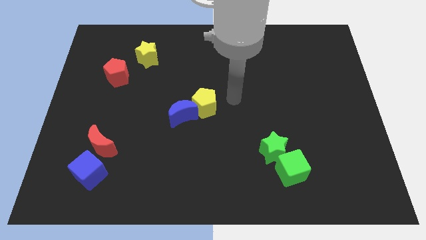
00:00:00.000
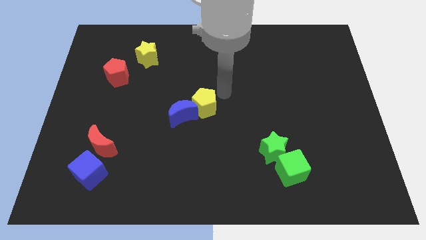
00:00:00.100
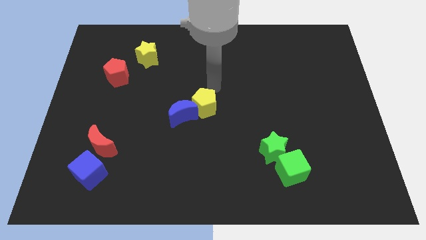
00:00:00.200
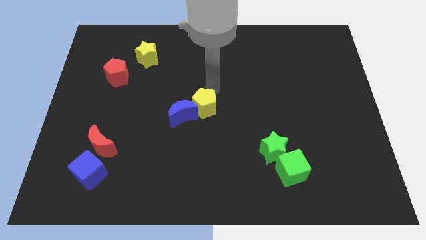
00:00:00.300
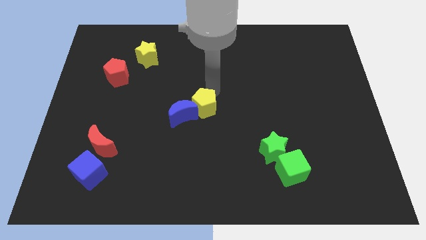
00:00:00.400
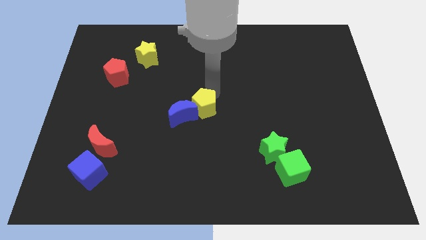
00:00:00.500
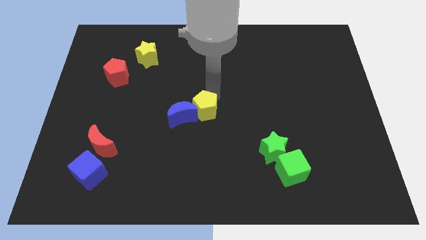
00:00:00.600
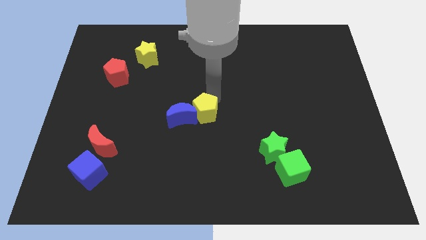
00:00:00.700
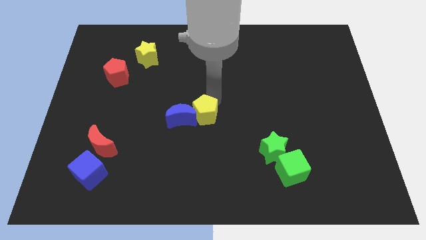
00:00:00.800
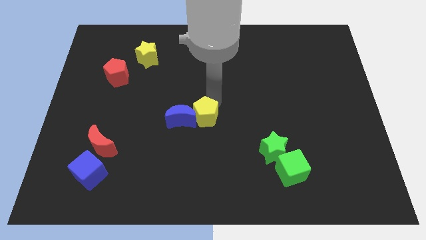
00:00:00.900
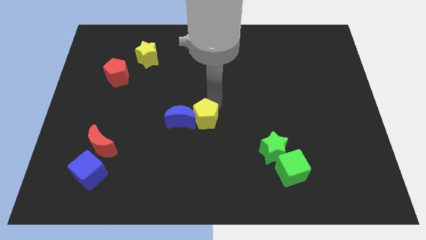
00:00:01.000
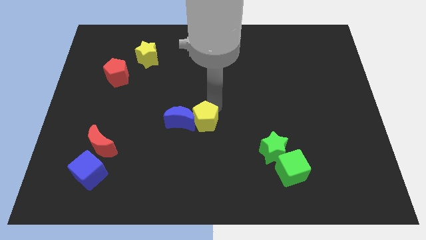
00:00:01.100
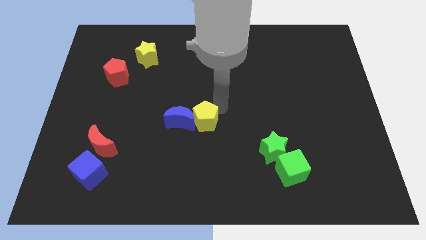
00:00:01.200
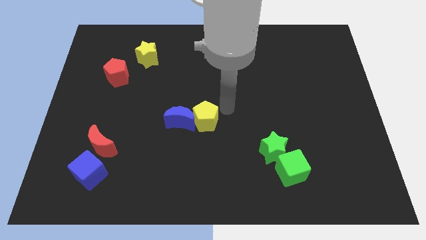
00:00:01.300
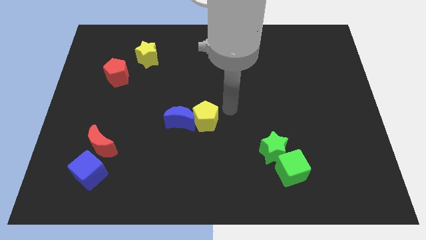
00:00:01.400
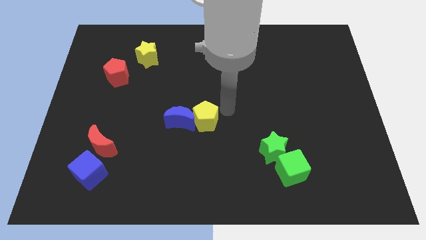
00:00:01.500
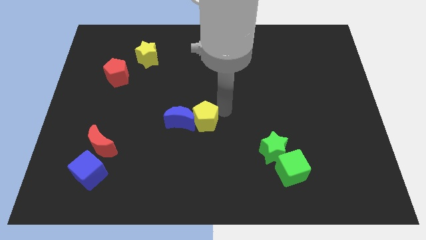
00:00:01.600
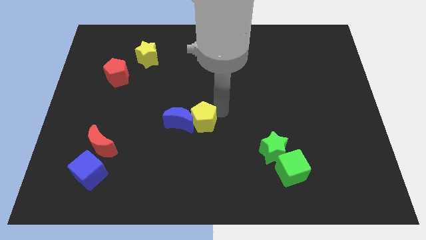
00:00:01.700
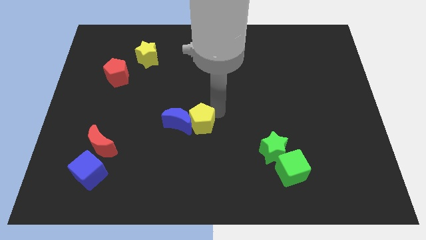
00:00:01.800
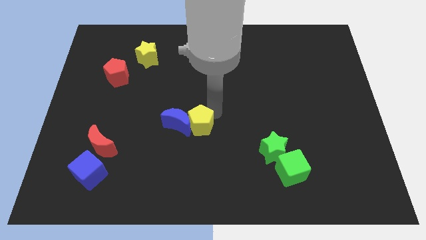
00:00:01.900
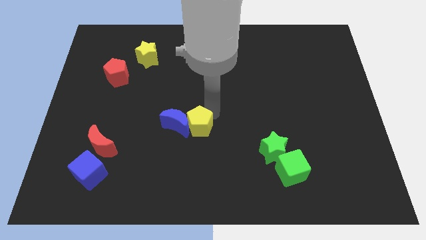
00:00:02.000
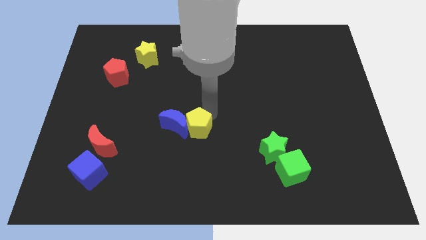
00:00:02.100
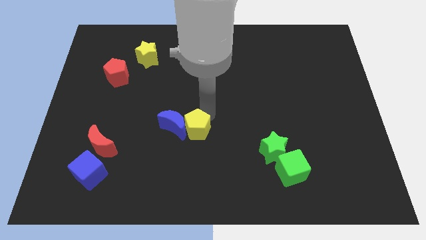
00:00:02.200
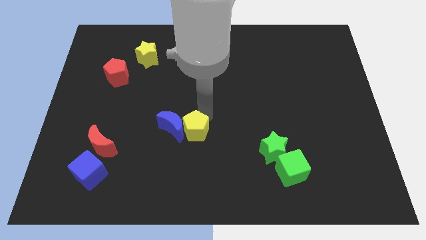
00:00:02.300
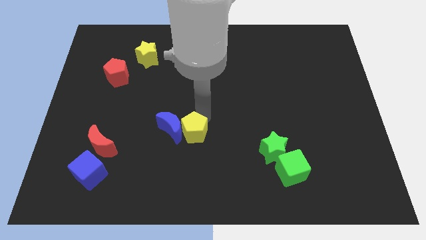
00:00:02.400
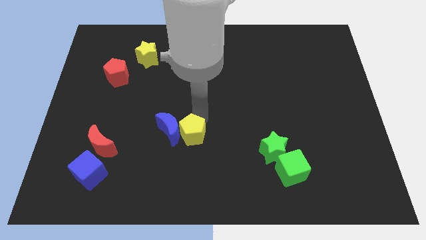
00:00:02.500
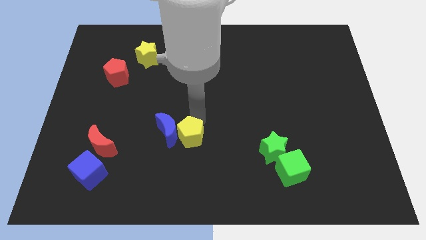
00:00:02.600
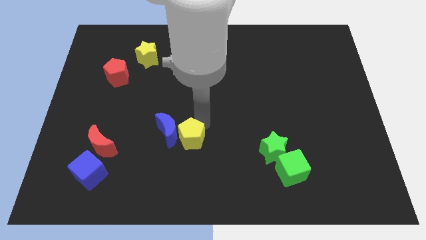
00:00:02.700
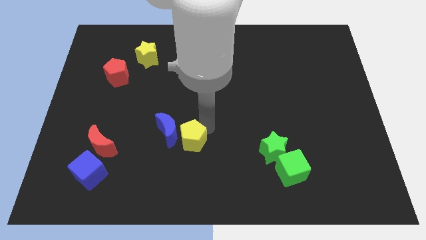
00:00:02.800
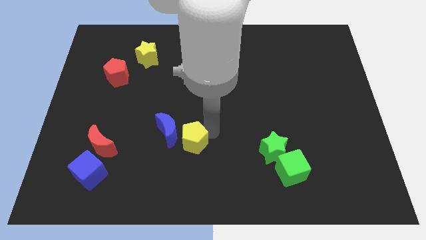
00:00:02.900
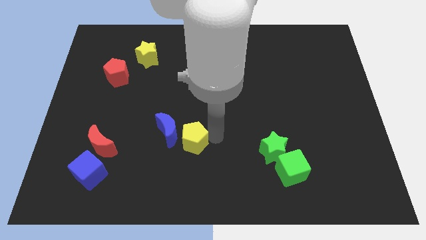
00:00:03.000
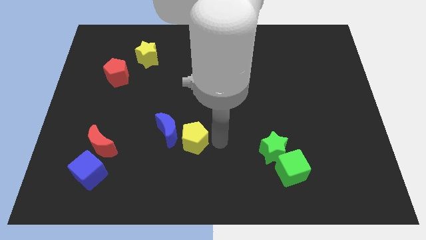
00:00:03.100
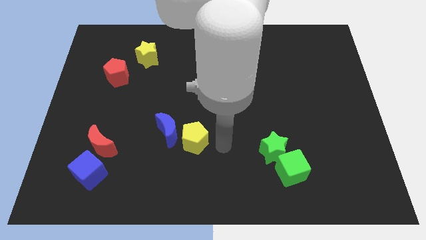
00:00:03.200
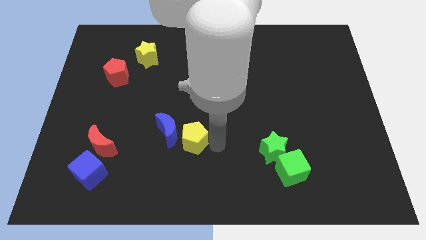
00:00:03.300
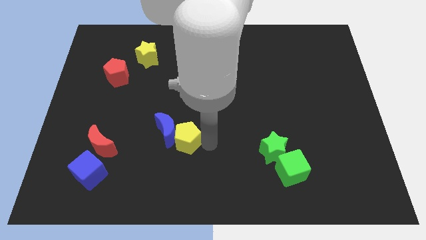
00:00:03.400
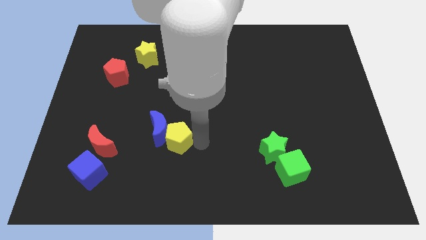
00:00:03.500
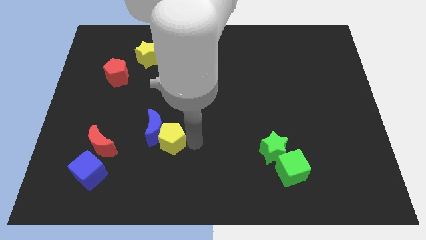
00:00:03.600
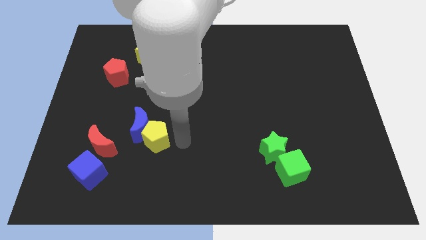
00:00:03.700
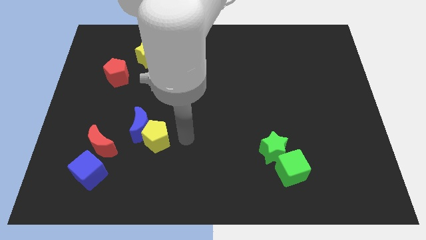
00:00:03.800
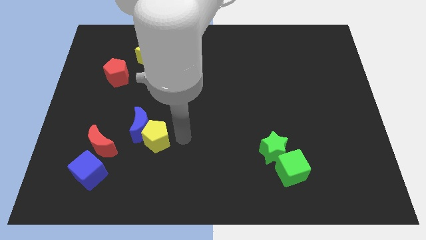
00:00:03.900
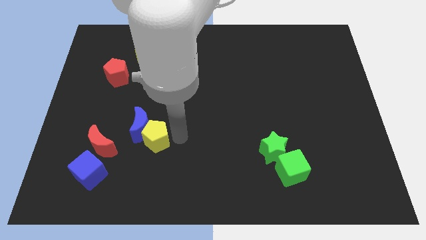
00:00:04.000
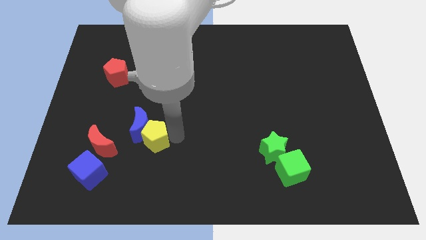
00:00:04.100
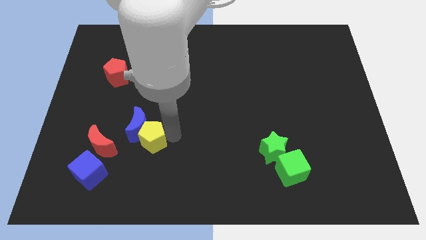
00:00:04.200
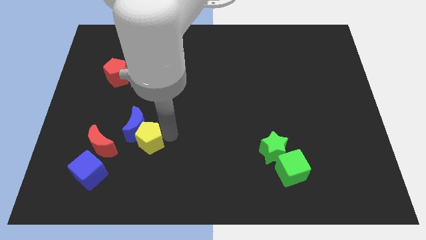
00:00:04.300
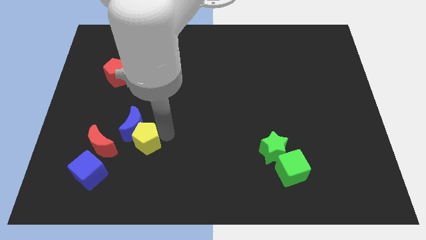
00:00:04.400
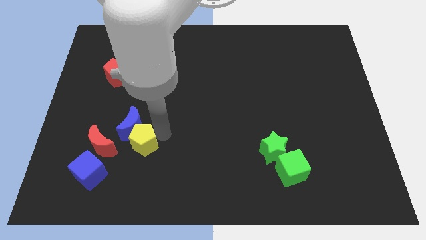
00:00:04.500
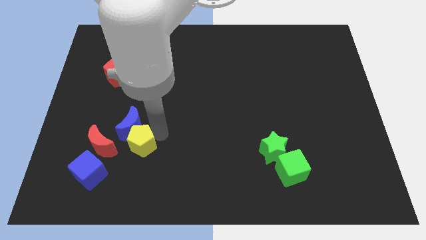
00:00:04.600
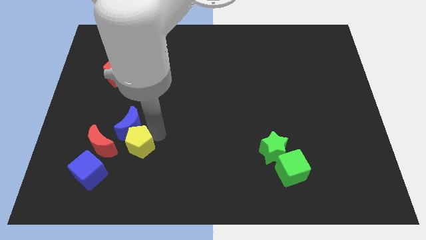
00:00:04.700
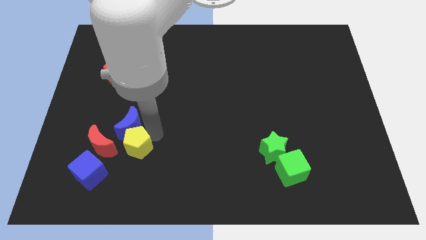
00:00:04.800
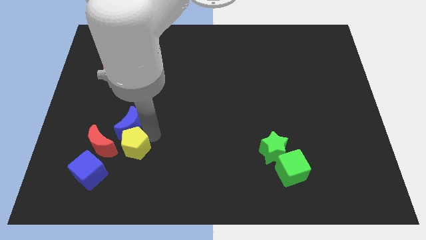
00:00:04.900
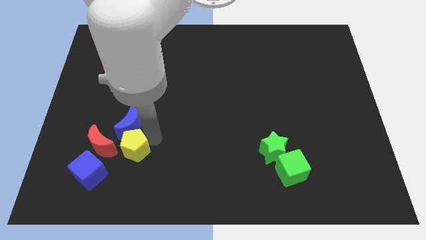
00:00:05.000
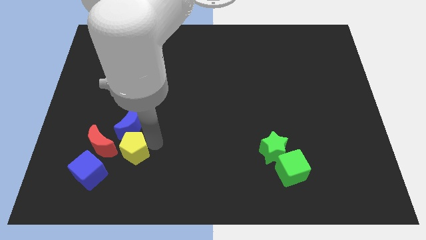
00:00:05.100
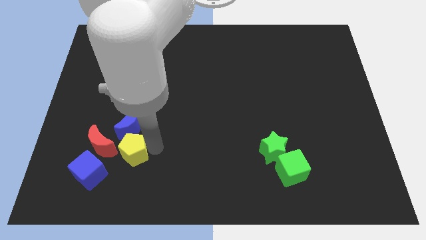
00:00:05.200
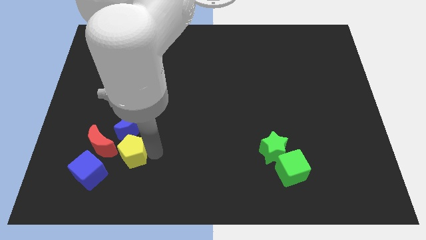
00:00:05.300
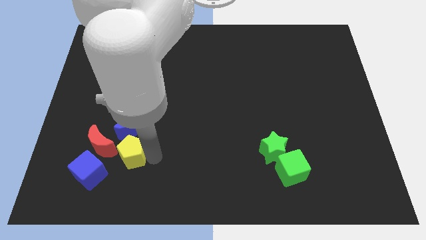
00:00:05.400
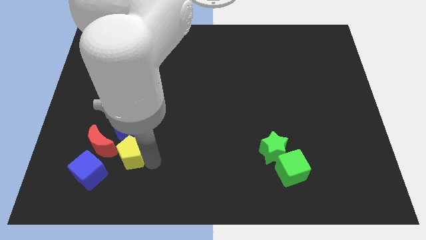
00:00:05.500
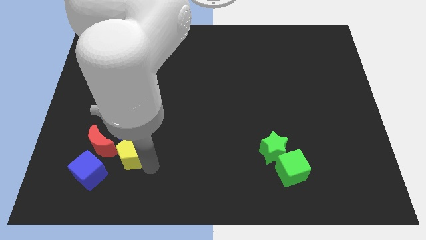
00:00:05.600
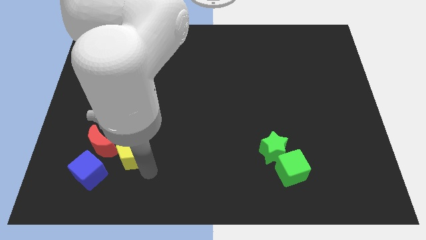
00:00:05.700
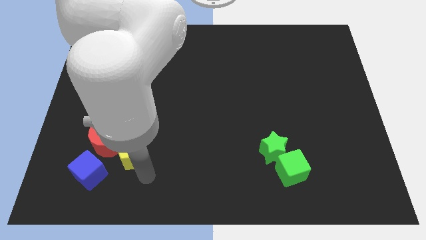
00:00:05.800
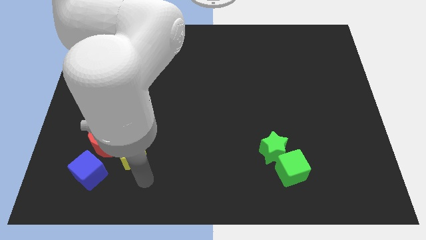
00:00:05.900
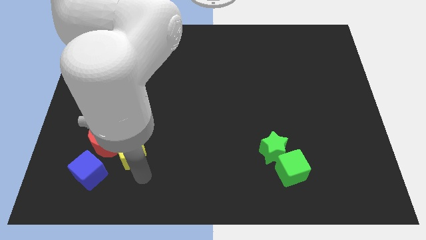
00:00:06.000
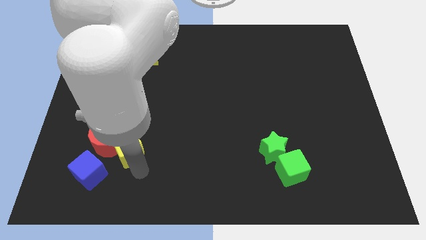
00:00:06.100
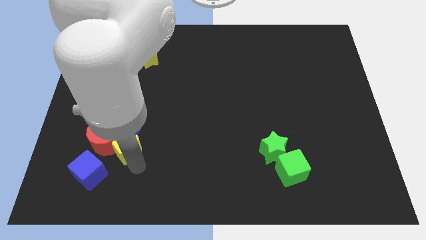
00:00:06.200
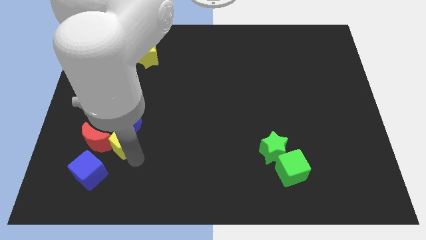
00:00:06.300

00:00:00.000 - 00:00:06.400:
slide the yellow pentagon close to the red moon

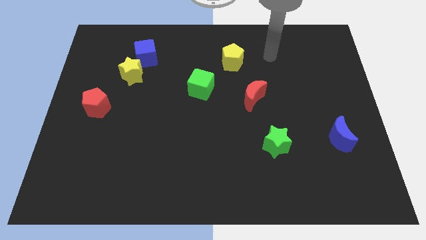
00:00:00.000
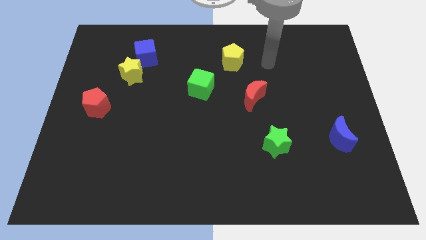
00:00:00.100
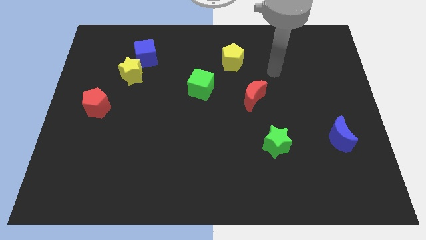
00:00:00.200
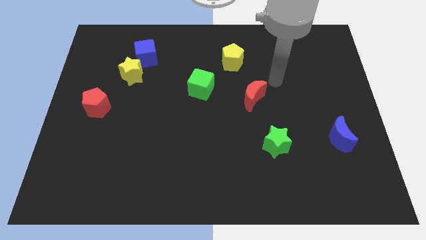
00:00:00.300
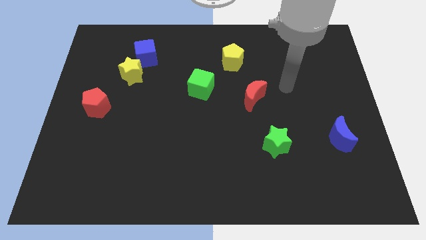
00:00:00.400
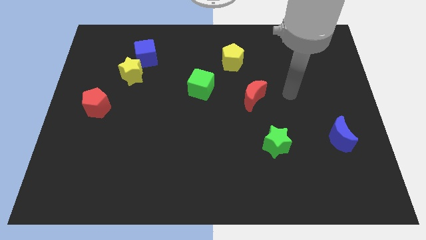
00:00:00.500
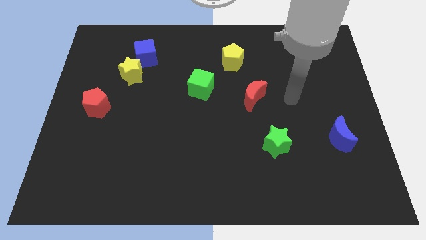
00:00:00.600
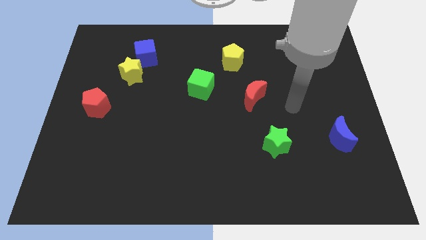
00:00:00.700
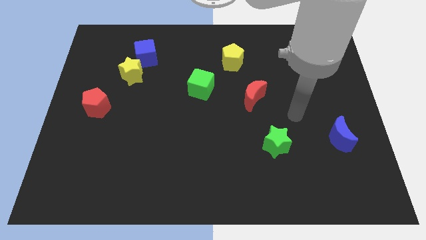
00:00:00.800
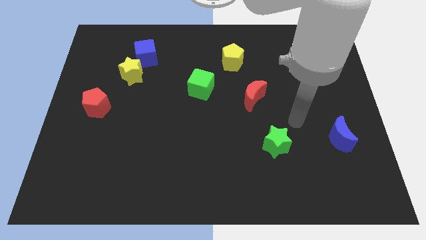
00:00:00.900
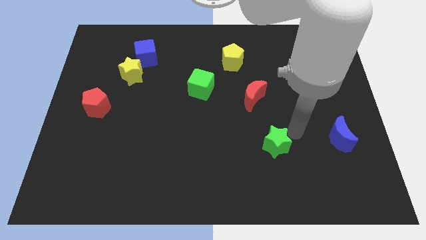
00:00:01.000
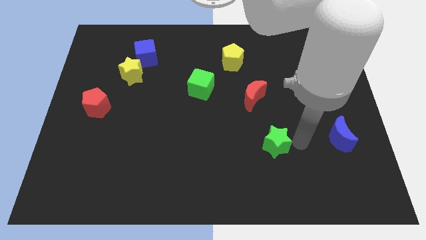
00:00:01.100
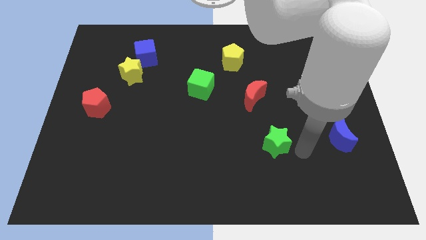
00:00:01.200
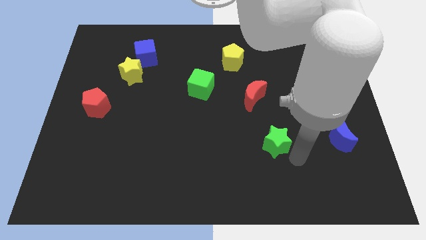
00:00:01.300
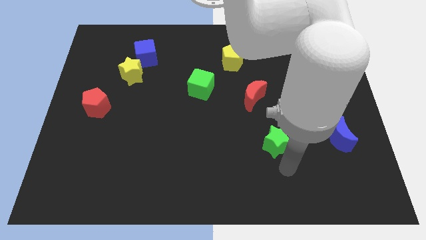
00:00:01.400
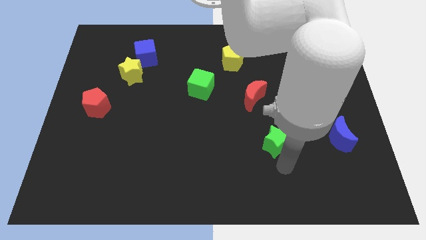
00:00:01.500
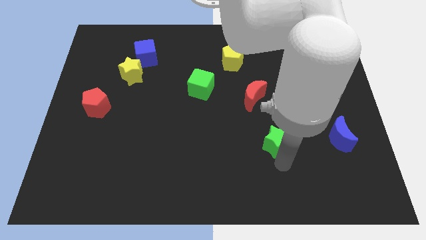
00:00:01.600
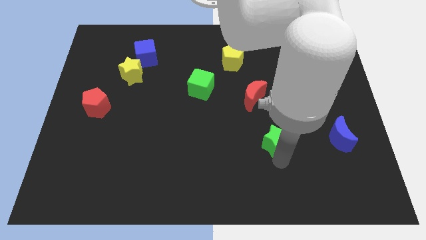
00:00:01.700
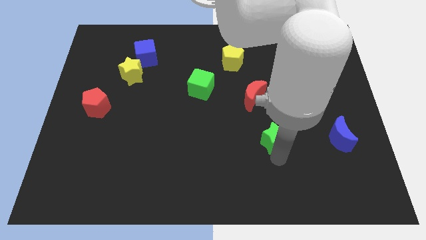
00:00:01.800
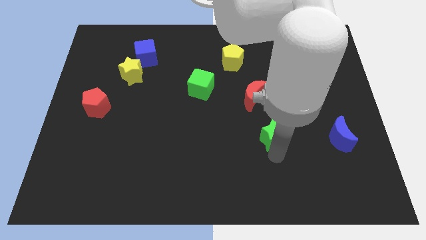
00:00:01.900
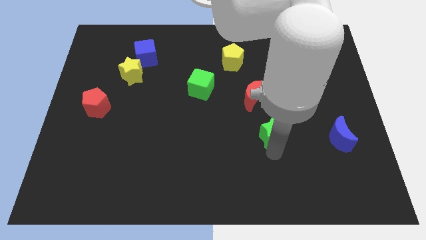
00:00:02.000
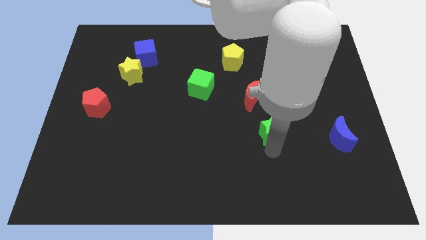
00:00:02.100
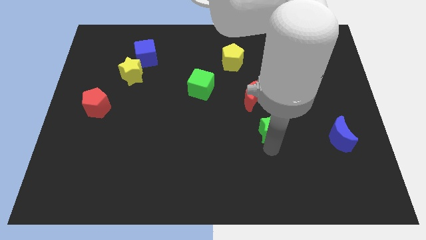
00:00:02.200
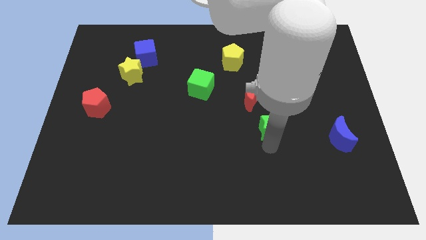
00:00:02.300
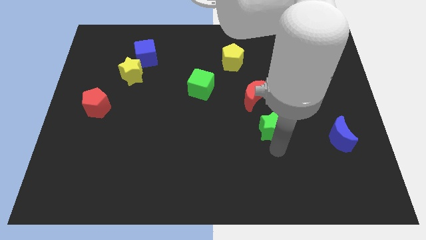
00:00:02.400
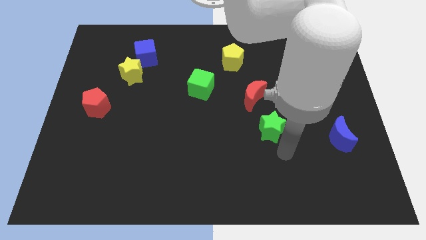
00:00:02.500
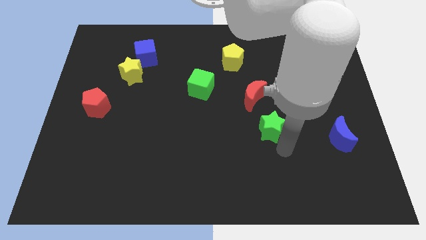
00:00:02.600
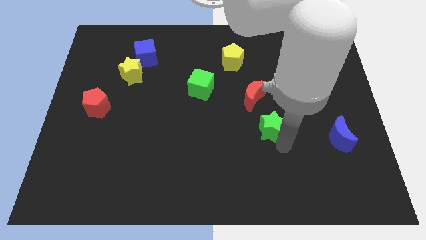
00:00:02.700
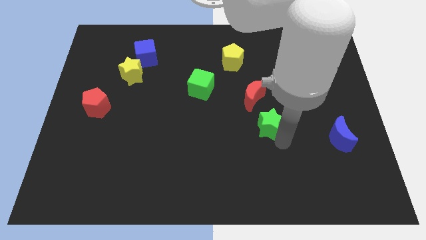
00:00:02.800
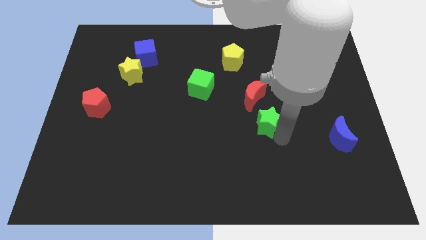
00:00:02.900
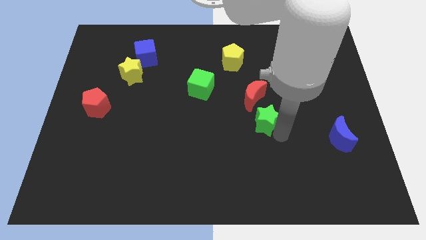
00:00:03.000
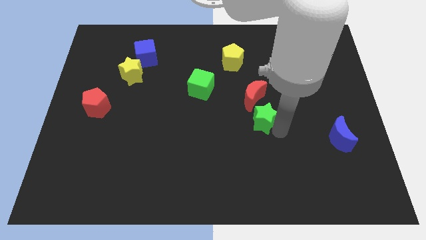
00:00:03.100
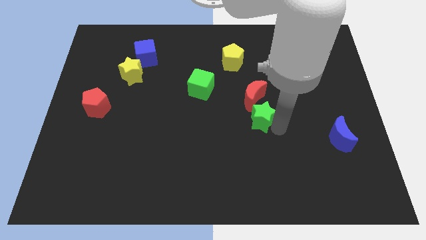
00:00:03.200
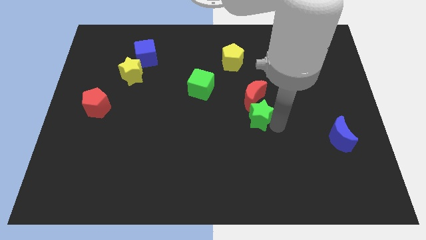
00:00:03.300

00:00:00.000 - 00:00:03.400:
slide the green star next to the red moon
